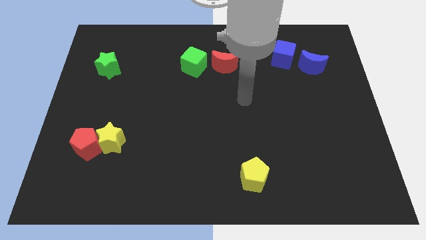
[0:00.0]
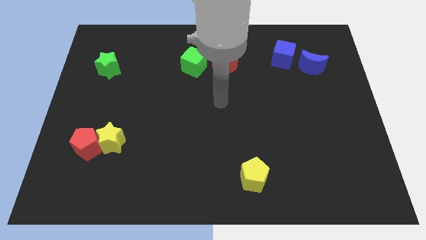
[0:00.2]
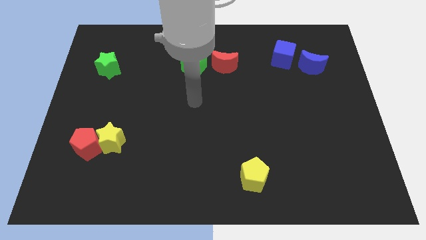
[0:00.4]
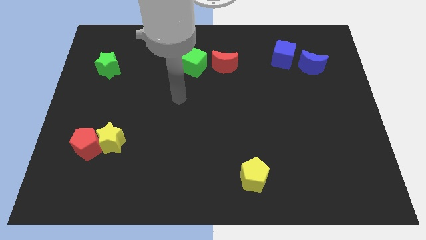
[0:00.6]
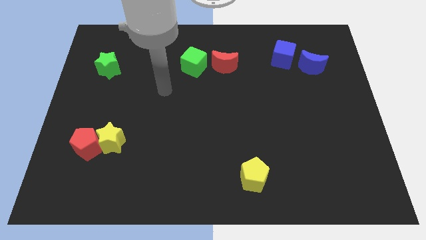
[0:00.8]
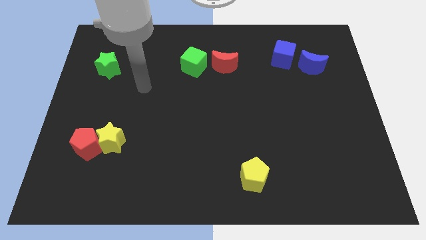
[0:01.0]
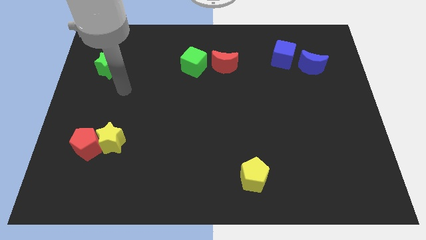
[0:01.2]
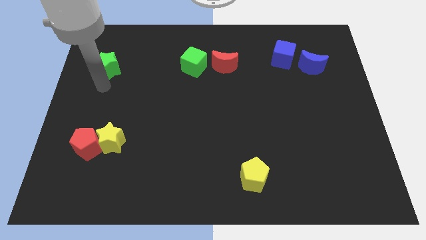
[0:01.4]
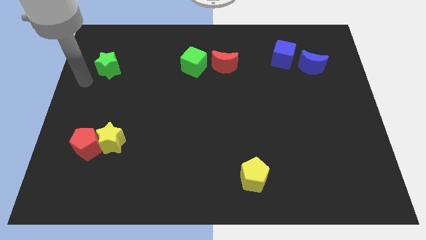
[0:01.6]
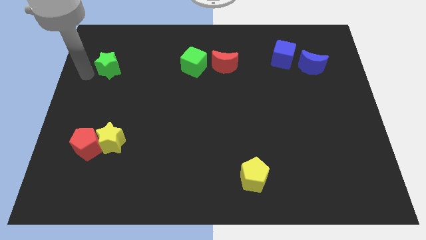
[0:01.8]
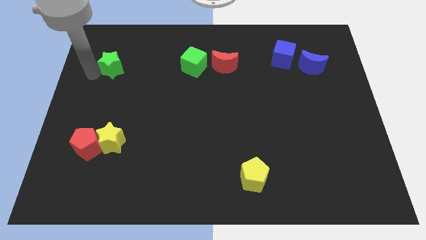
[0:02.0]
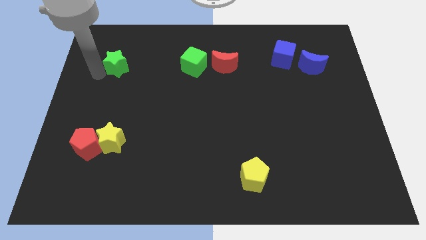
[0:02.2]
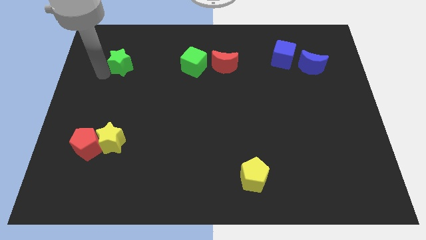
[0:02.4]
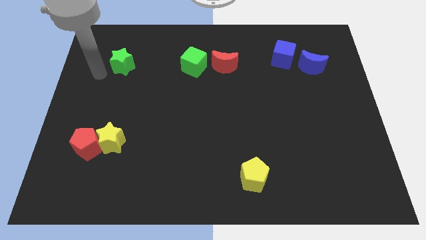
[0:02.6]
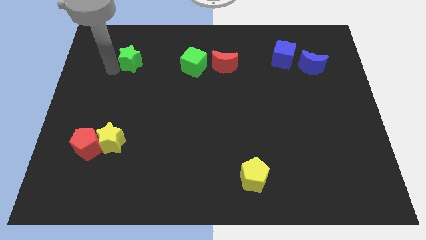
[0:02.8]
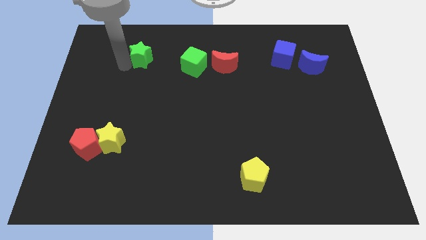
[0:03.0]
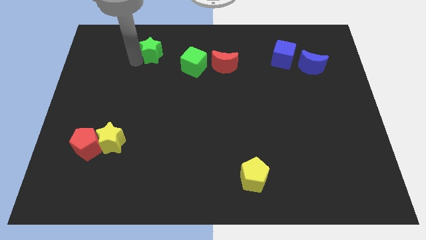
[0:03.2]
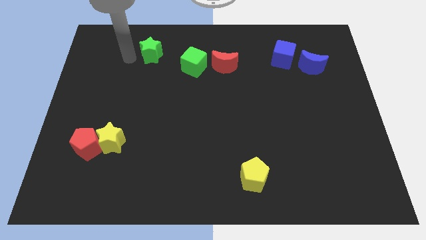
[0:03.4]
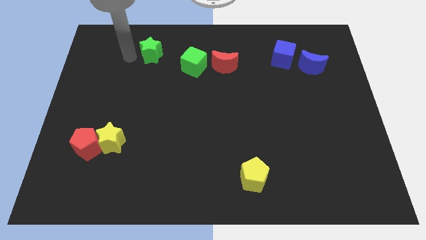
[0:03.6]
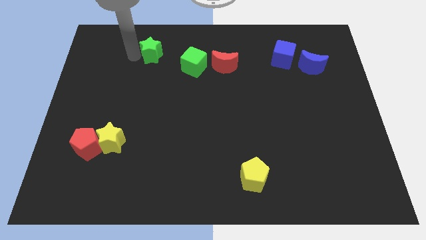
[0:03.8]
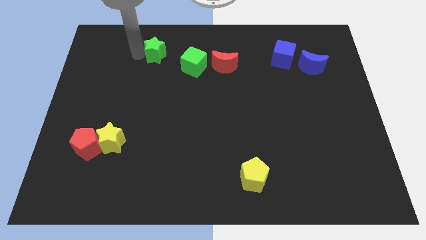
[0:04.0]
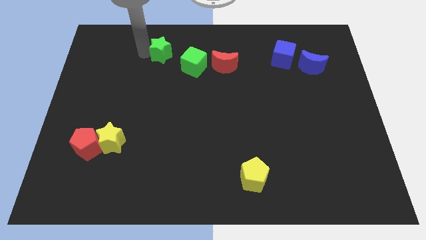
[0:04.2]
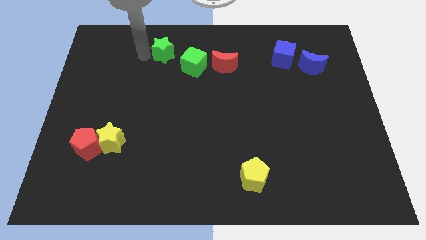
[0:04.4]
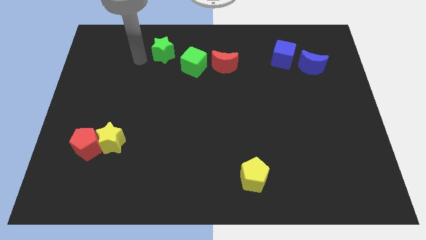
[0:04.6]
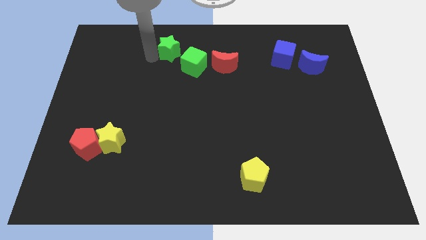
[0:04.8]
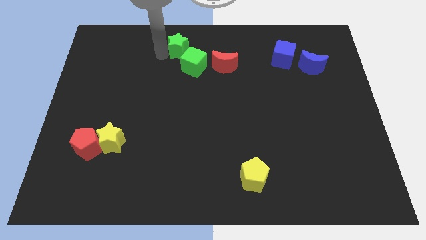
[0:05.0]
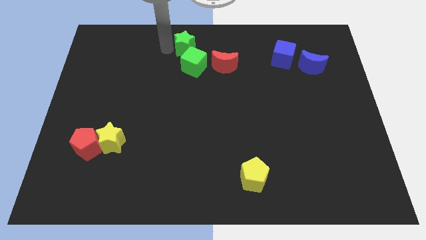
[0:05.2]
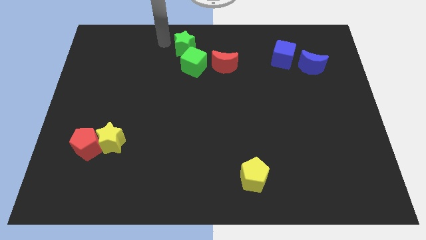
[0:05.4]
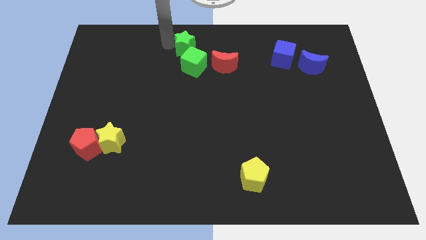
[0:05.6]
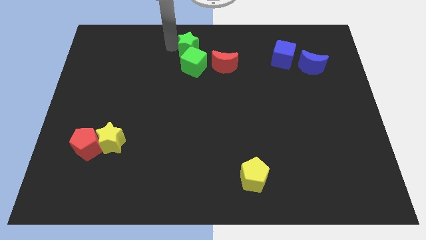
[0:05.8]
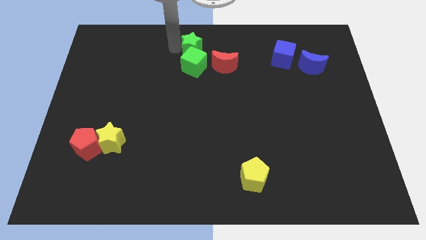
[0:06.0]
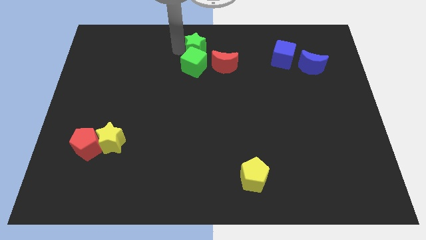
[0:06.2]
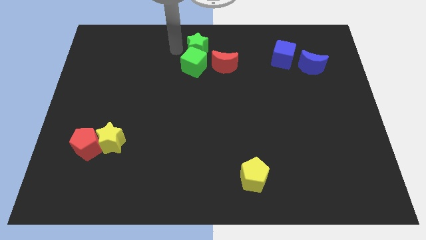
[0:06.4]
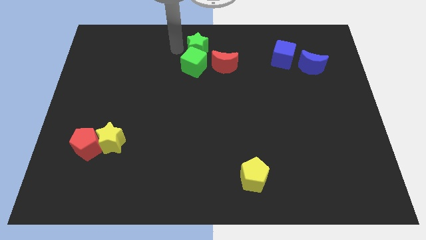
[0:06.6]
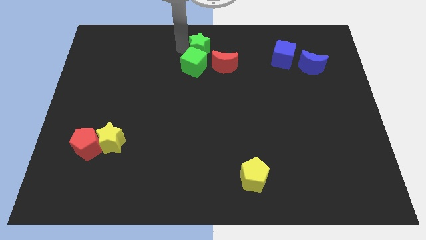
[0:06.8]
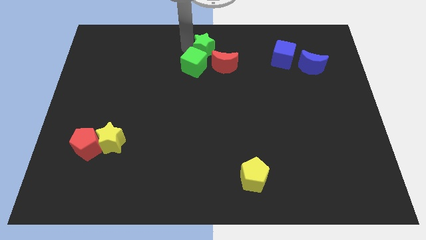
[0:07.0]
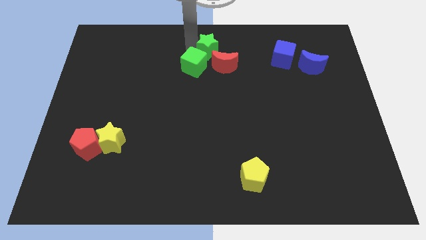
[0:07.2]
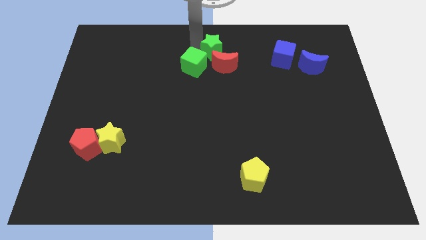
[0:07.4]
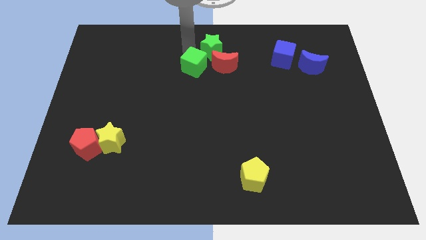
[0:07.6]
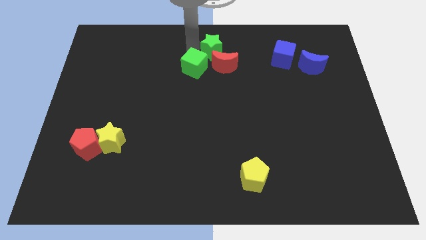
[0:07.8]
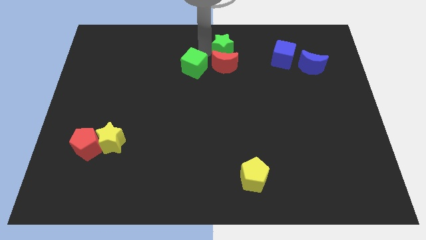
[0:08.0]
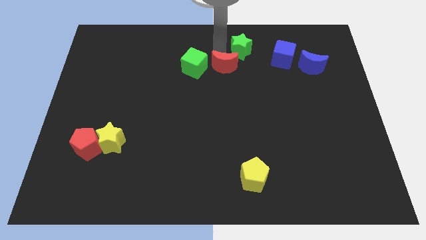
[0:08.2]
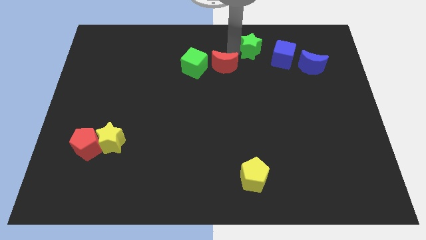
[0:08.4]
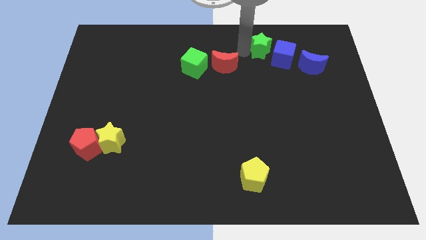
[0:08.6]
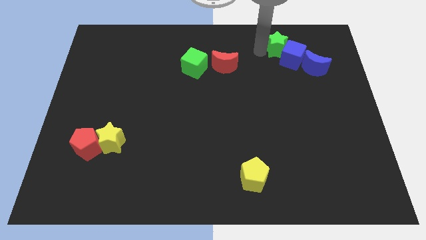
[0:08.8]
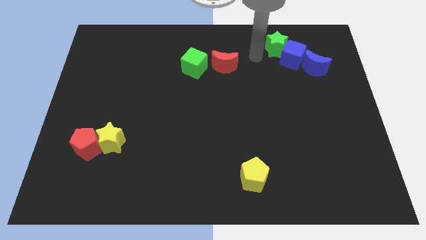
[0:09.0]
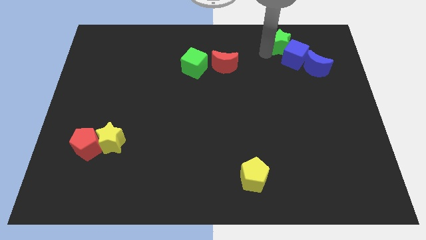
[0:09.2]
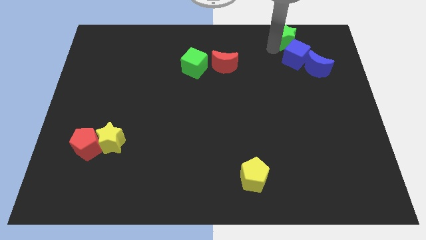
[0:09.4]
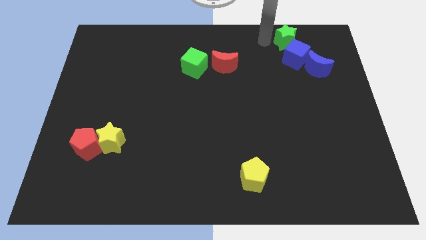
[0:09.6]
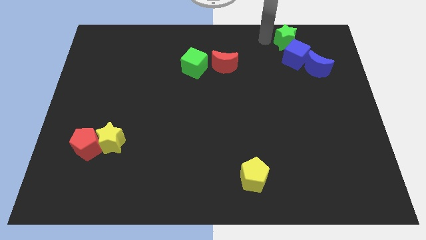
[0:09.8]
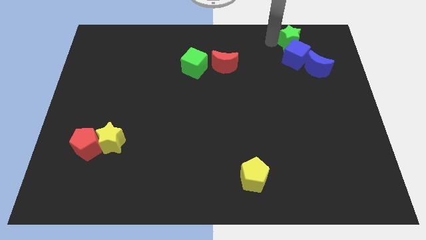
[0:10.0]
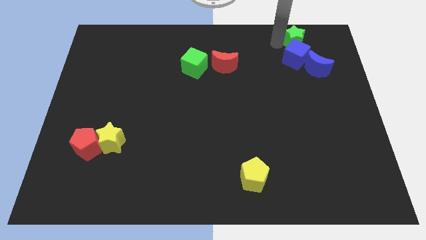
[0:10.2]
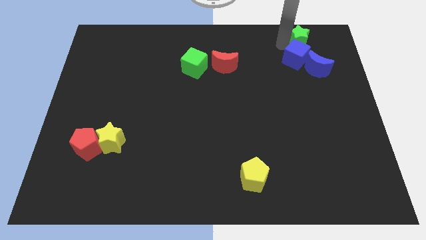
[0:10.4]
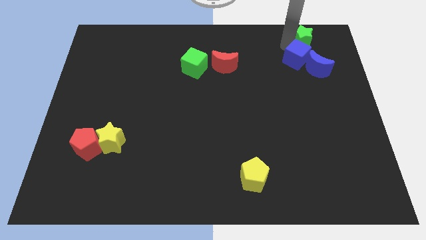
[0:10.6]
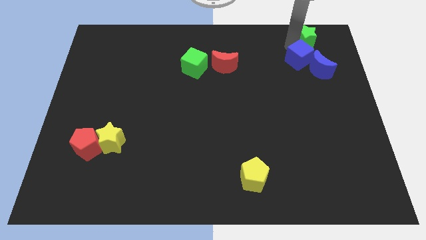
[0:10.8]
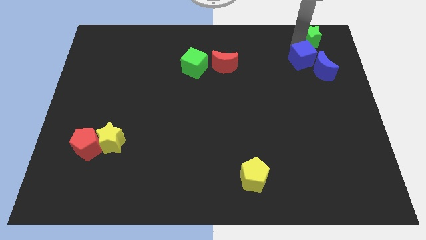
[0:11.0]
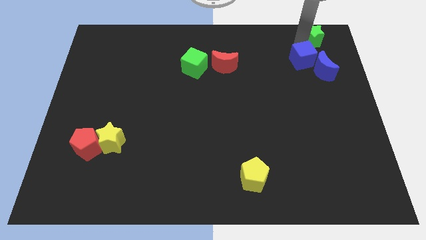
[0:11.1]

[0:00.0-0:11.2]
slide the green star to the top right of the board

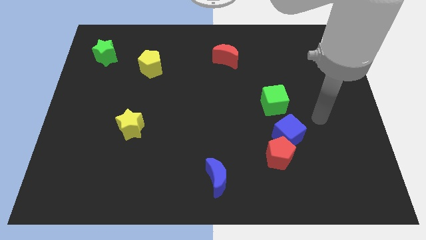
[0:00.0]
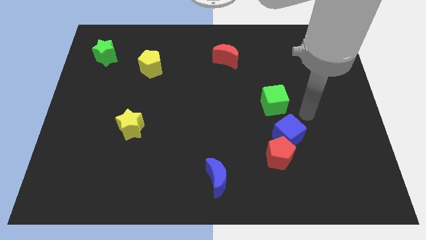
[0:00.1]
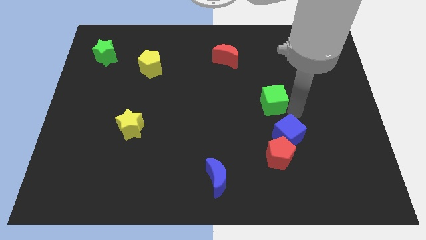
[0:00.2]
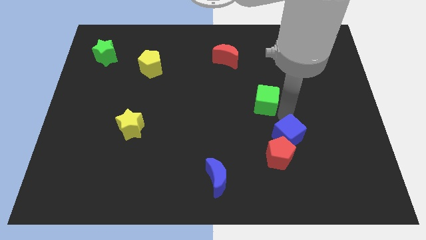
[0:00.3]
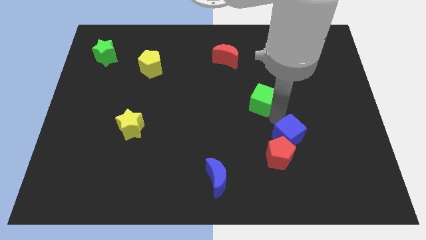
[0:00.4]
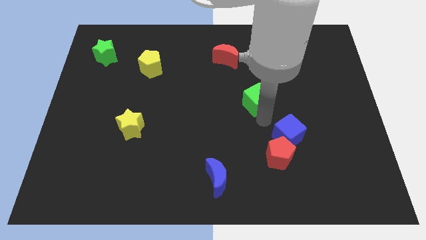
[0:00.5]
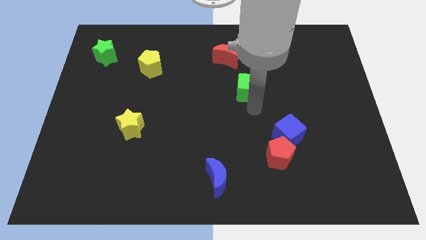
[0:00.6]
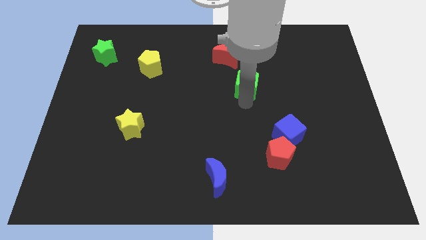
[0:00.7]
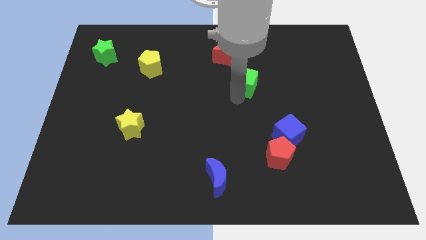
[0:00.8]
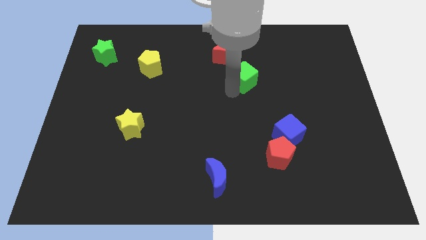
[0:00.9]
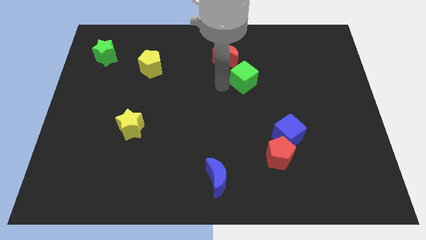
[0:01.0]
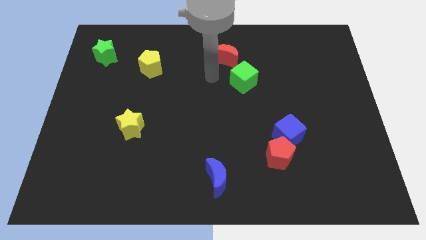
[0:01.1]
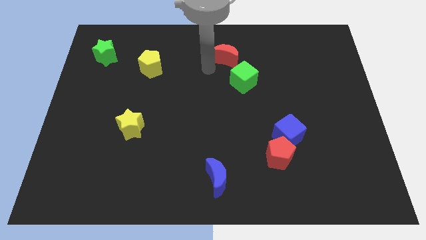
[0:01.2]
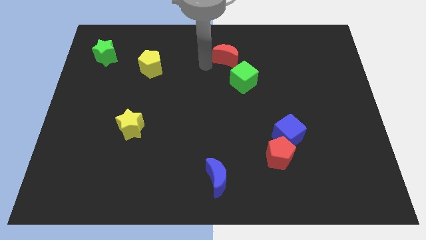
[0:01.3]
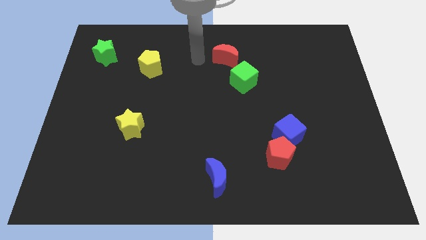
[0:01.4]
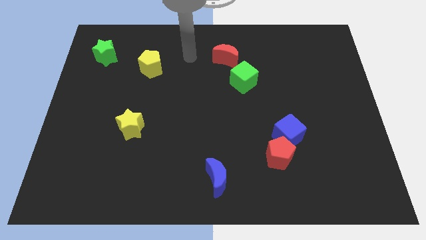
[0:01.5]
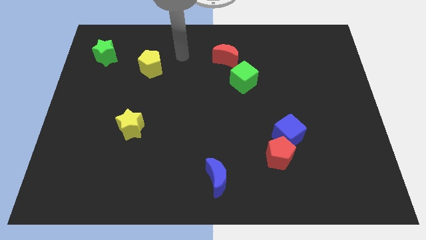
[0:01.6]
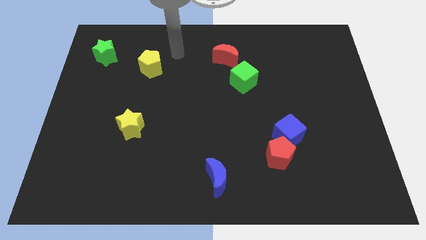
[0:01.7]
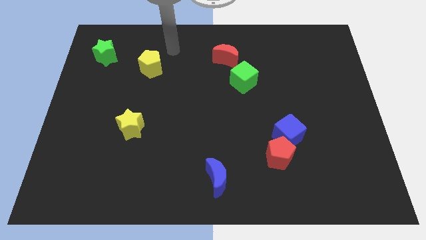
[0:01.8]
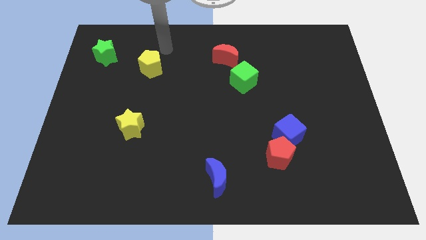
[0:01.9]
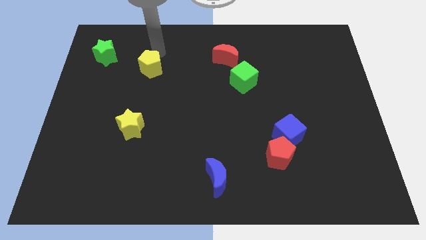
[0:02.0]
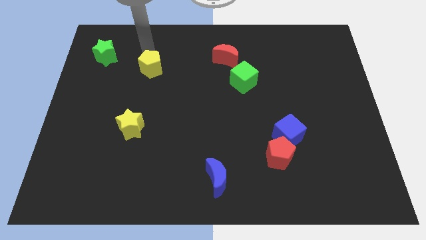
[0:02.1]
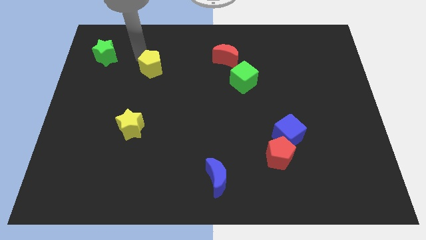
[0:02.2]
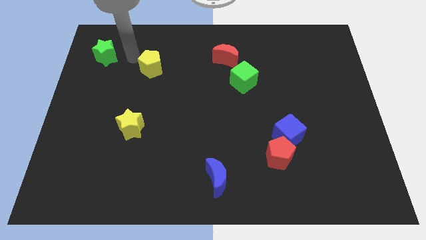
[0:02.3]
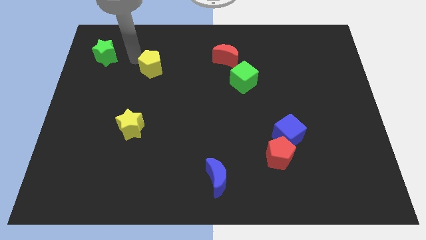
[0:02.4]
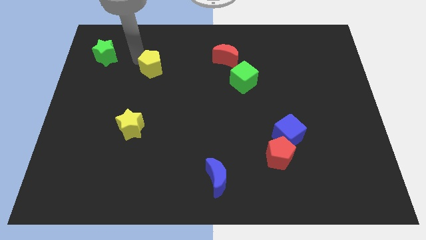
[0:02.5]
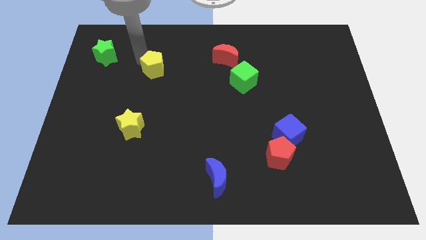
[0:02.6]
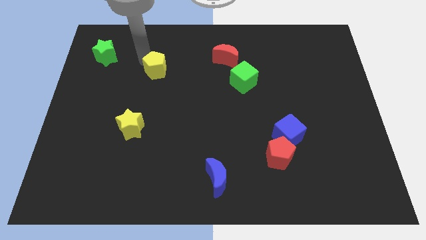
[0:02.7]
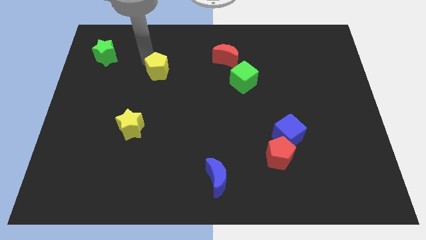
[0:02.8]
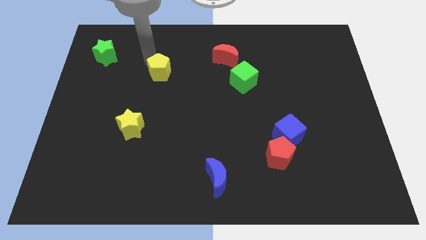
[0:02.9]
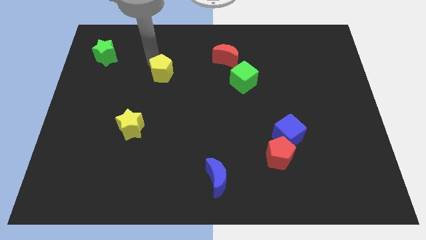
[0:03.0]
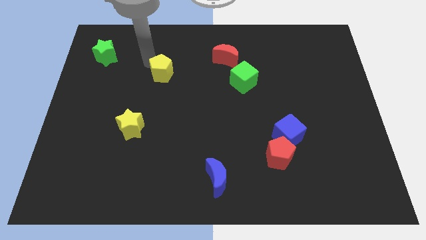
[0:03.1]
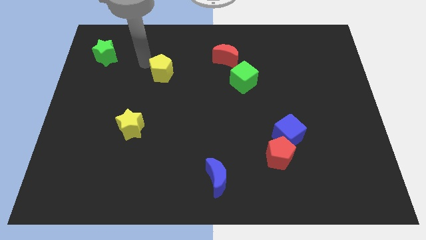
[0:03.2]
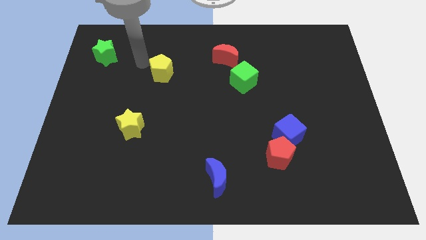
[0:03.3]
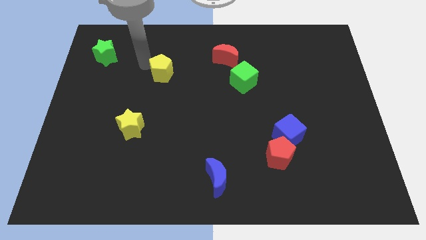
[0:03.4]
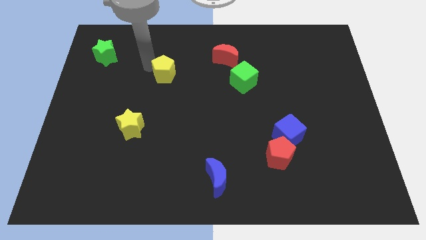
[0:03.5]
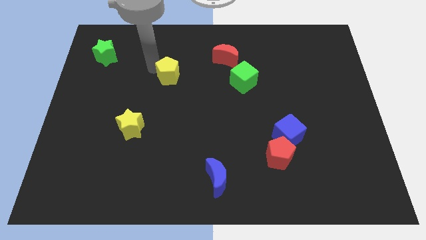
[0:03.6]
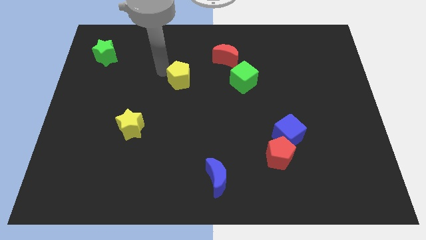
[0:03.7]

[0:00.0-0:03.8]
slide the yellow pentagon to the center
